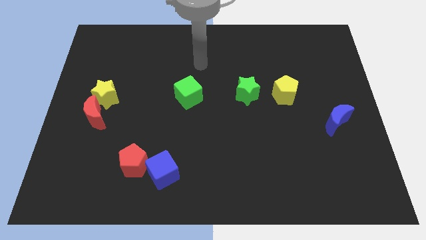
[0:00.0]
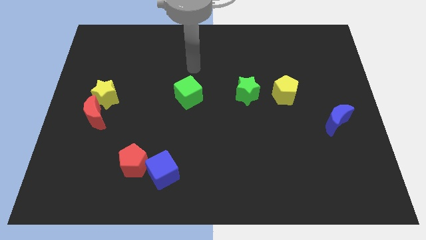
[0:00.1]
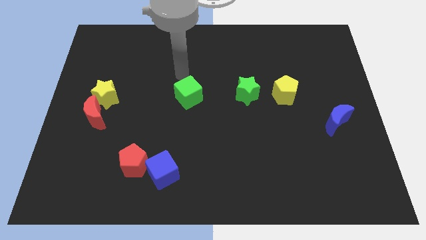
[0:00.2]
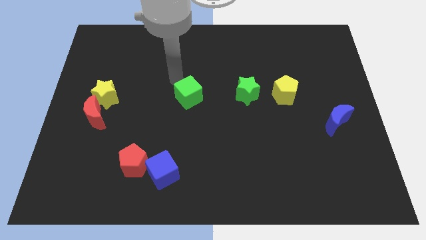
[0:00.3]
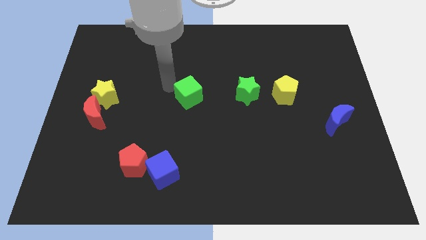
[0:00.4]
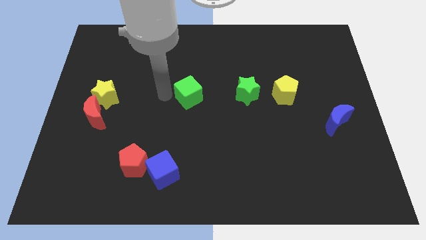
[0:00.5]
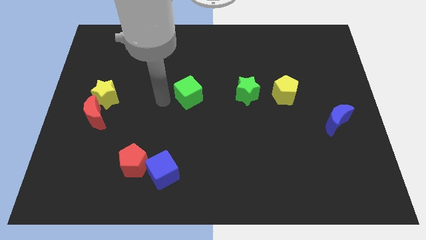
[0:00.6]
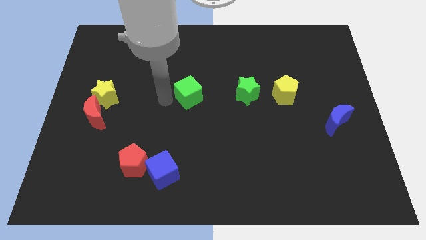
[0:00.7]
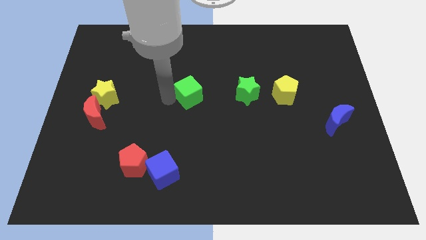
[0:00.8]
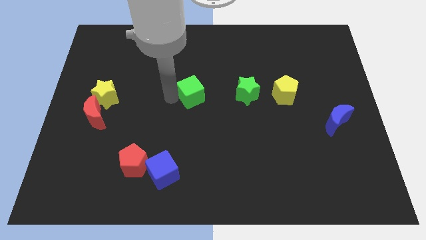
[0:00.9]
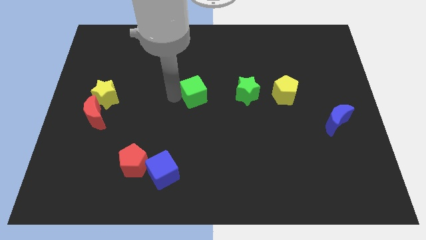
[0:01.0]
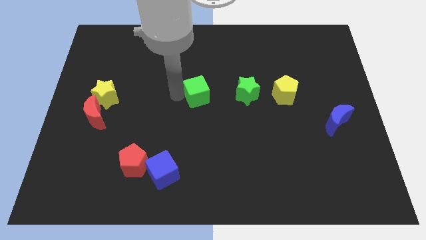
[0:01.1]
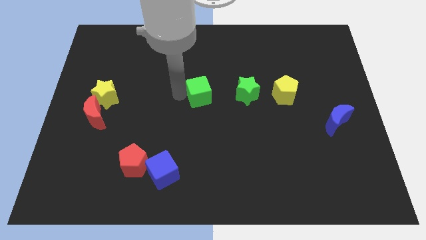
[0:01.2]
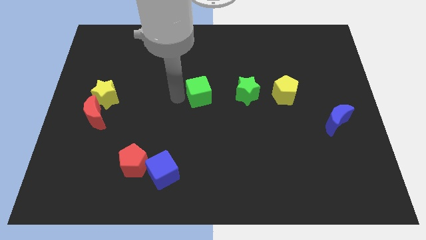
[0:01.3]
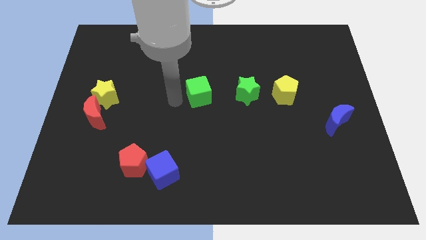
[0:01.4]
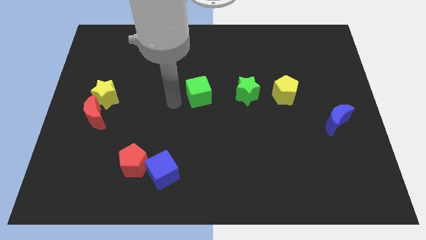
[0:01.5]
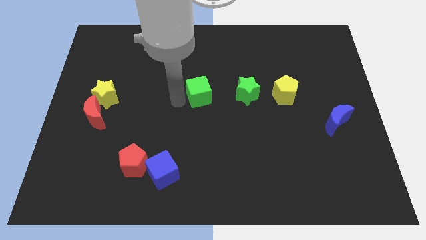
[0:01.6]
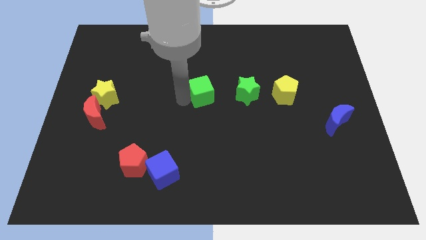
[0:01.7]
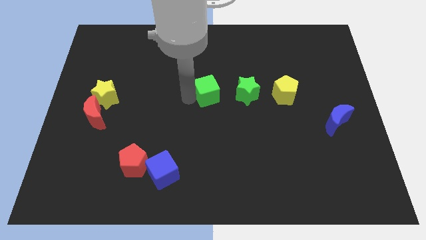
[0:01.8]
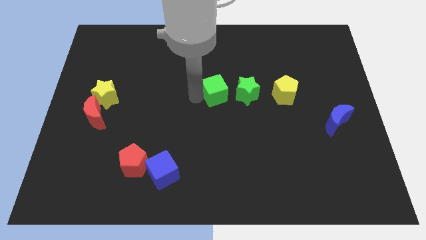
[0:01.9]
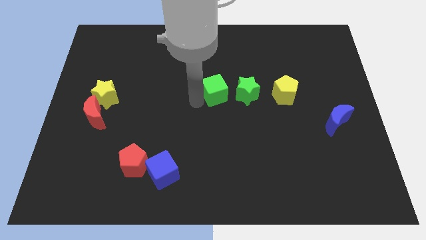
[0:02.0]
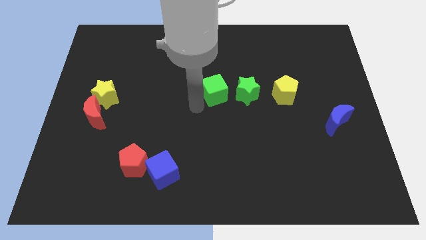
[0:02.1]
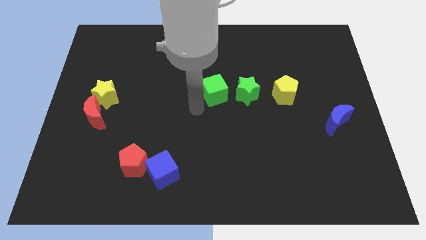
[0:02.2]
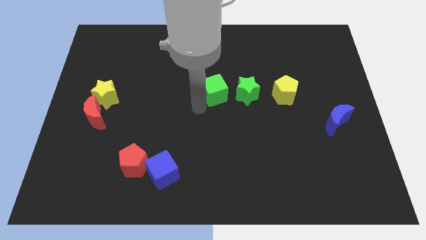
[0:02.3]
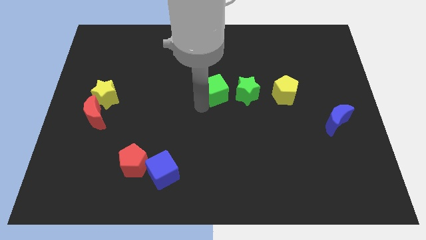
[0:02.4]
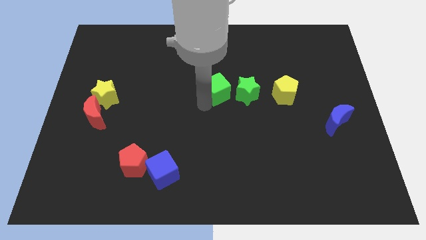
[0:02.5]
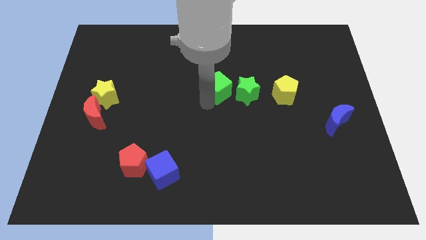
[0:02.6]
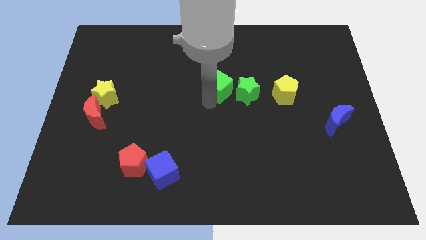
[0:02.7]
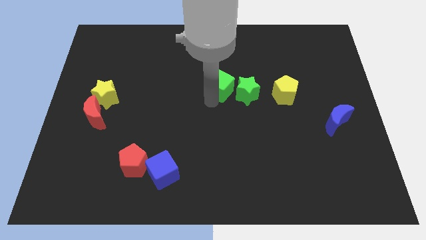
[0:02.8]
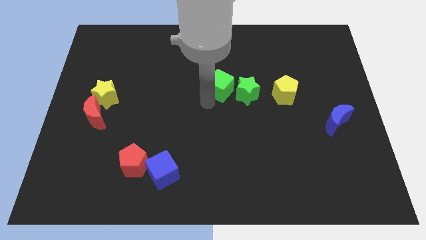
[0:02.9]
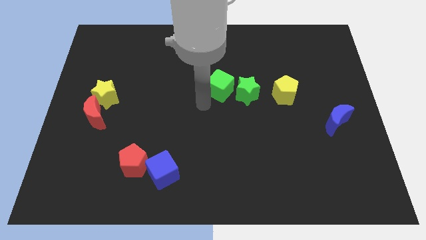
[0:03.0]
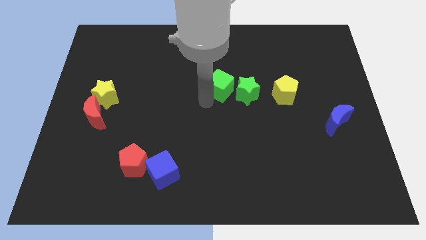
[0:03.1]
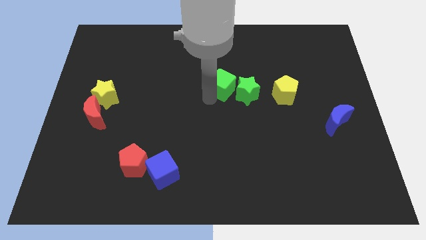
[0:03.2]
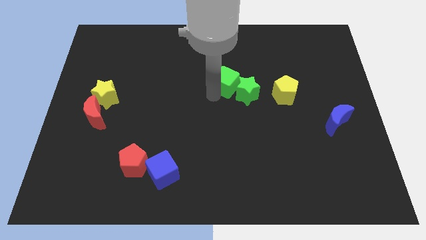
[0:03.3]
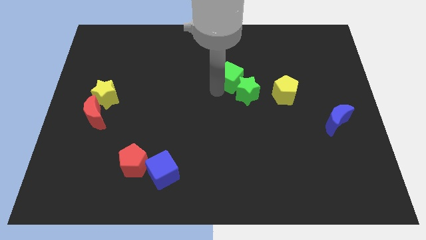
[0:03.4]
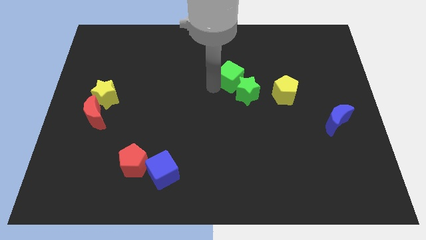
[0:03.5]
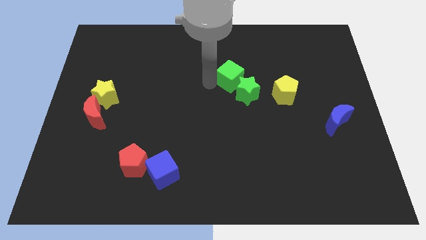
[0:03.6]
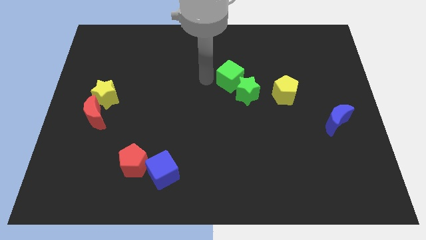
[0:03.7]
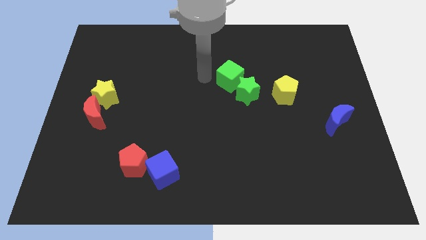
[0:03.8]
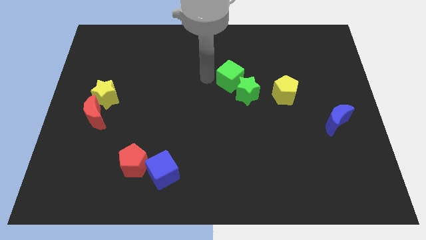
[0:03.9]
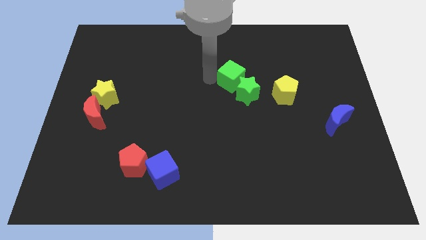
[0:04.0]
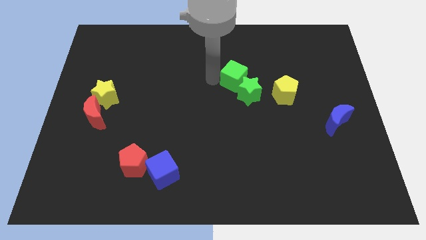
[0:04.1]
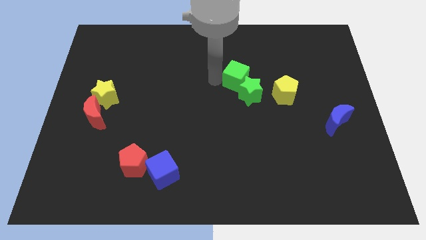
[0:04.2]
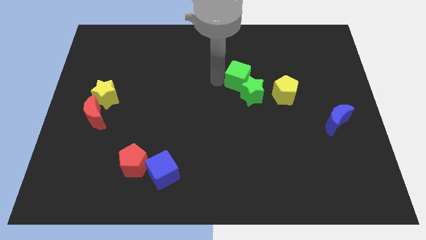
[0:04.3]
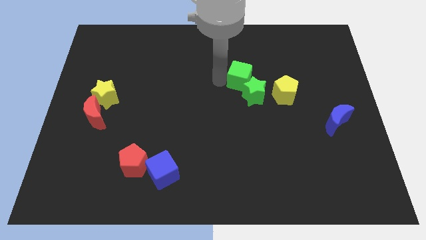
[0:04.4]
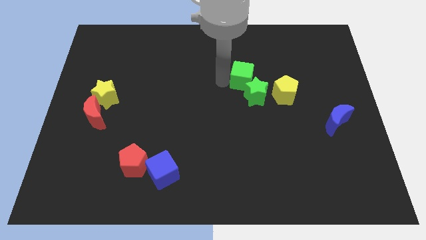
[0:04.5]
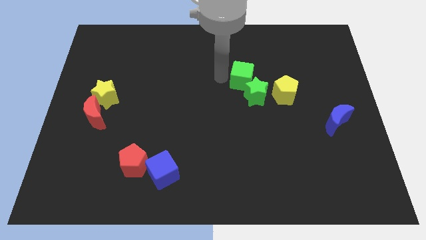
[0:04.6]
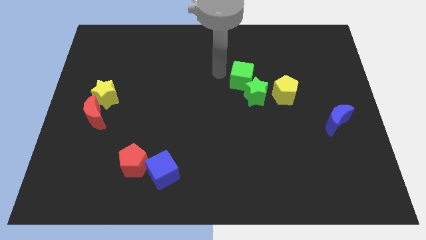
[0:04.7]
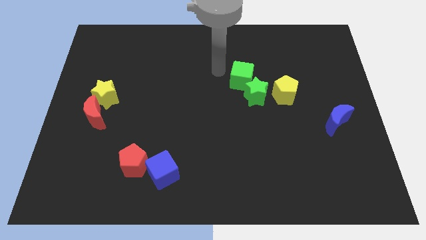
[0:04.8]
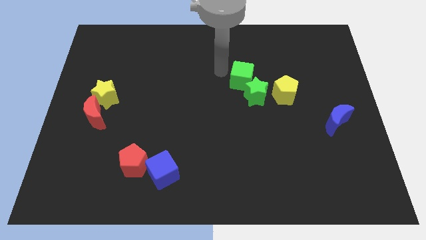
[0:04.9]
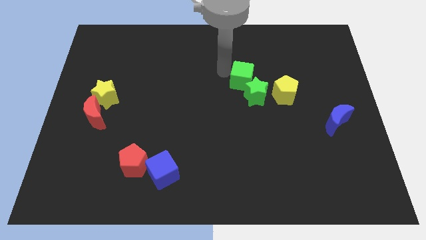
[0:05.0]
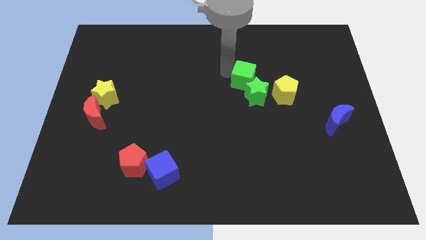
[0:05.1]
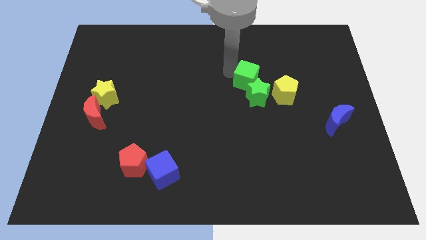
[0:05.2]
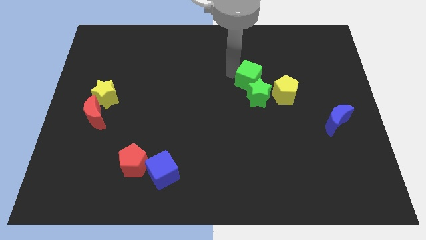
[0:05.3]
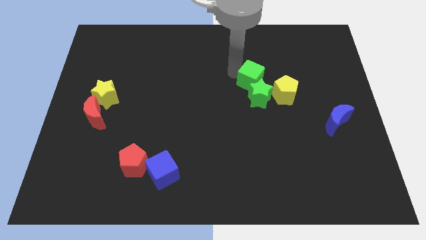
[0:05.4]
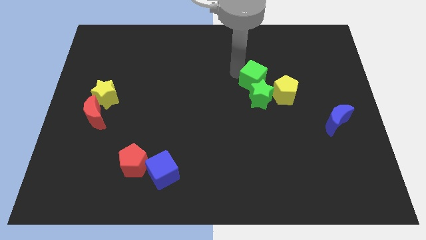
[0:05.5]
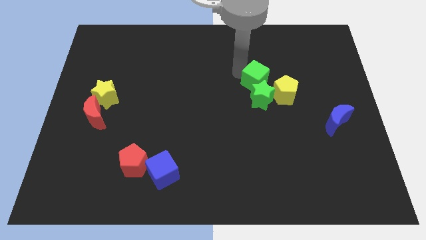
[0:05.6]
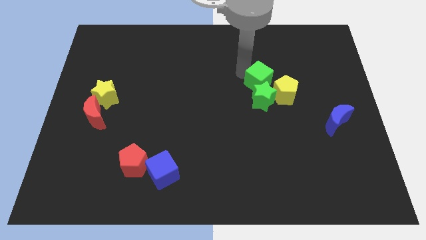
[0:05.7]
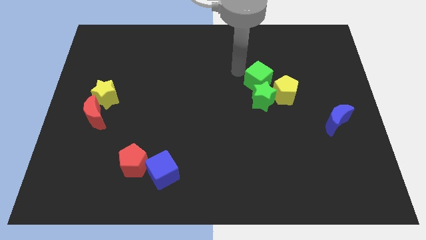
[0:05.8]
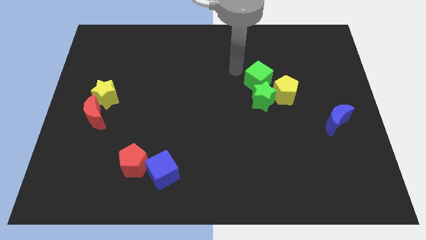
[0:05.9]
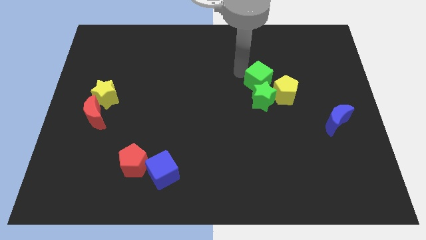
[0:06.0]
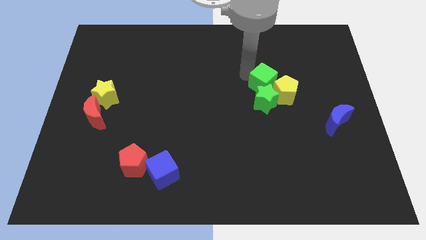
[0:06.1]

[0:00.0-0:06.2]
slide the green cube towards the yellow pentagon

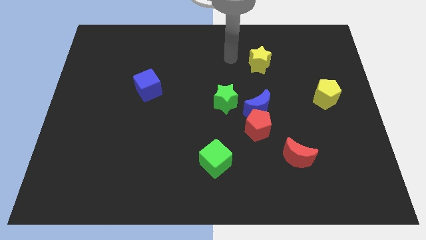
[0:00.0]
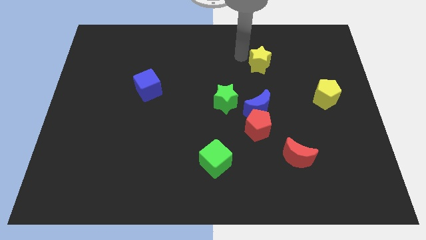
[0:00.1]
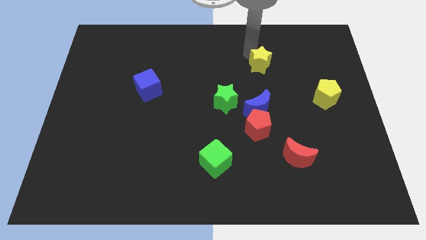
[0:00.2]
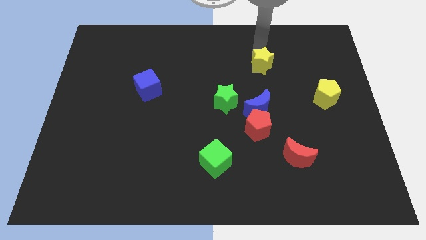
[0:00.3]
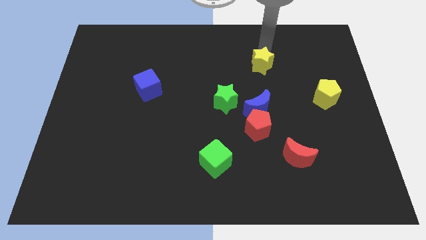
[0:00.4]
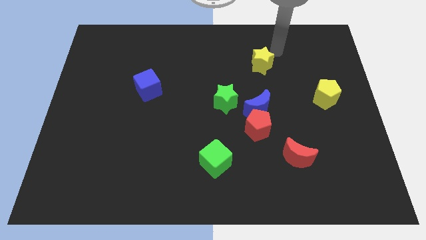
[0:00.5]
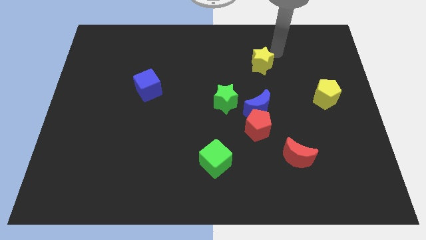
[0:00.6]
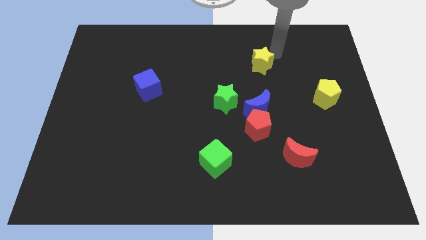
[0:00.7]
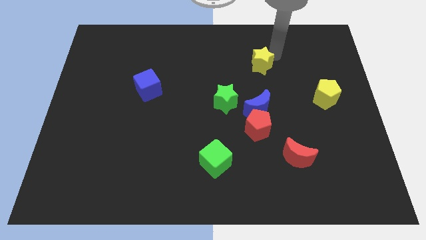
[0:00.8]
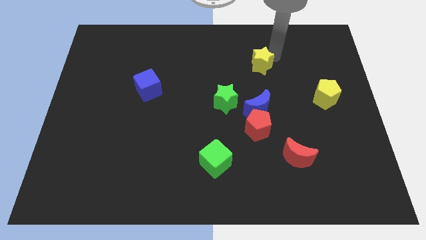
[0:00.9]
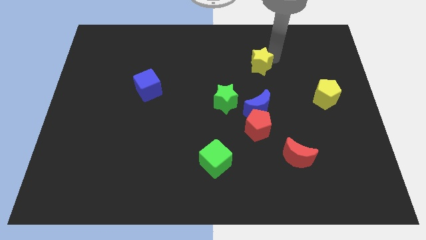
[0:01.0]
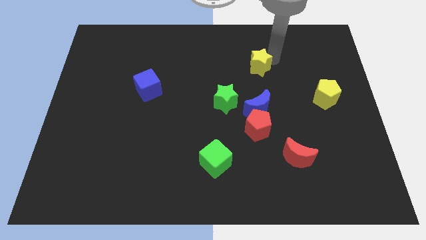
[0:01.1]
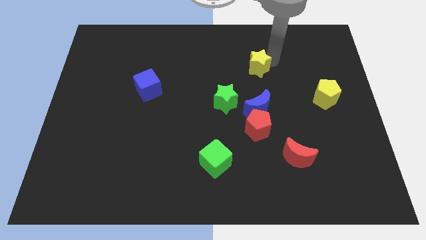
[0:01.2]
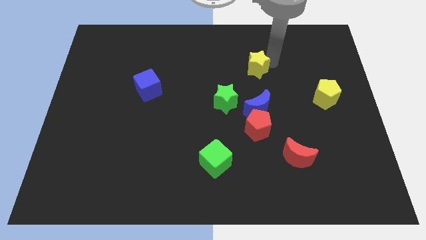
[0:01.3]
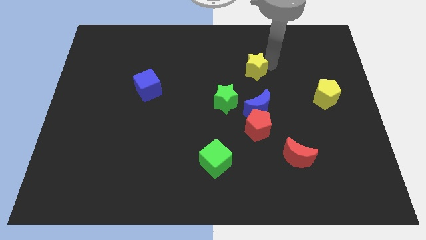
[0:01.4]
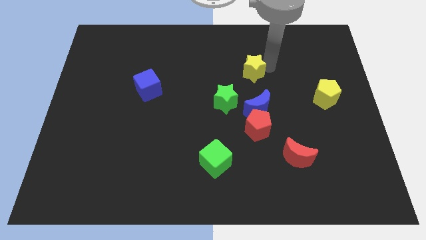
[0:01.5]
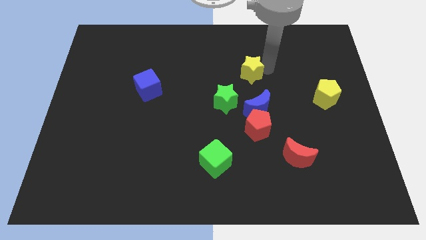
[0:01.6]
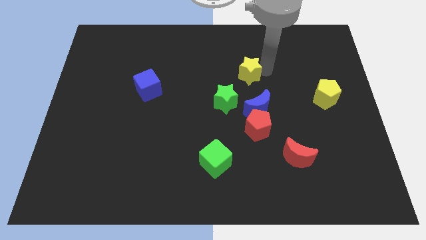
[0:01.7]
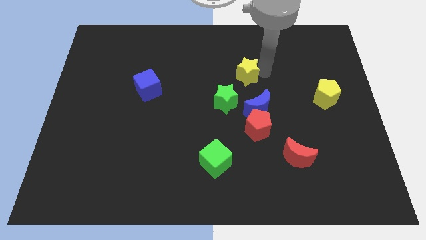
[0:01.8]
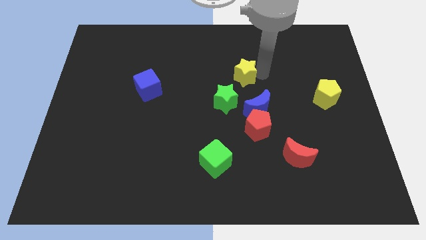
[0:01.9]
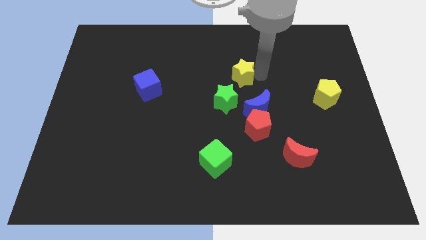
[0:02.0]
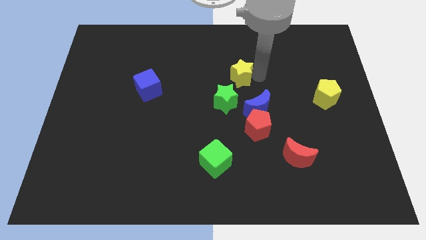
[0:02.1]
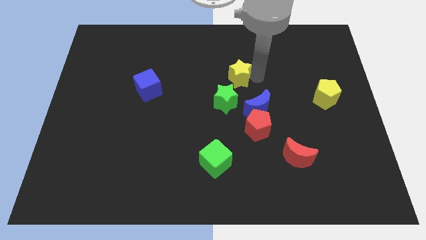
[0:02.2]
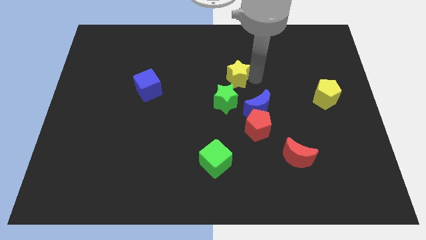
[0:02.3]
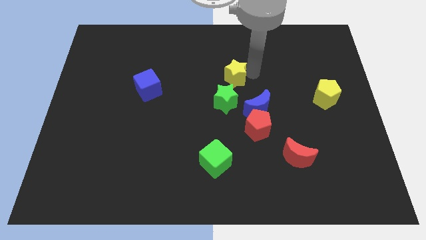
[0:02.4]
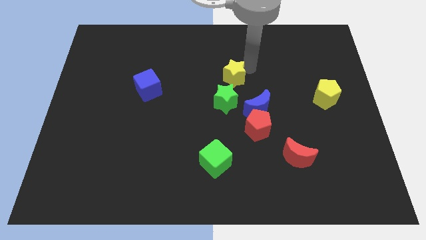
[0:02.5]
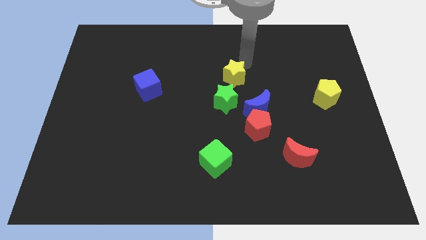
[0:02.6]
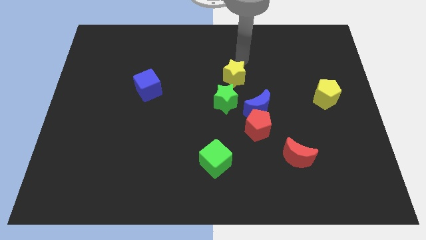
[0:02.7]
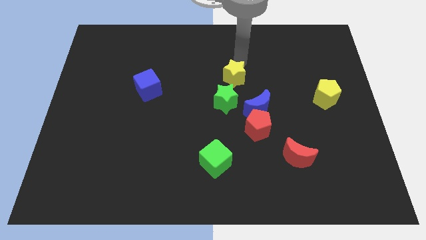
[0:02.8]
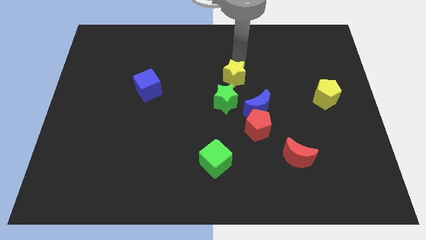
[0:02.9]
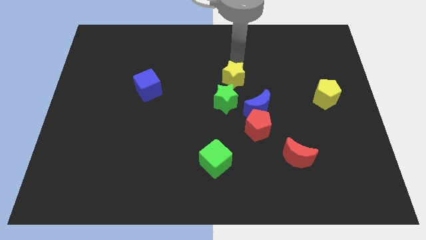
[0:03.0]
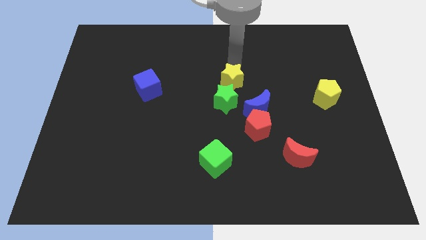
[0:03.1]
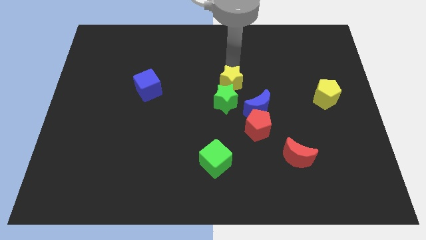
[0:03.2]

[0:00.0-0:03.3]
move the yellow star to the green star
